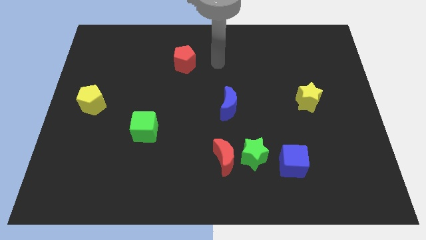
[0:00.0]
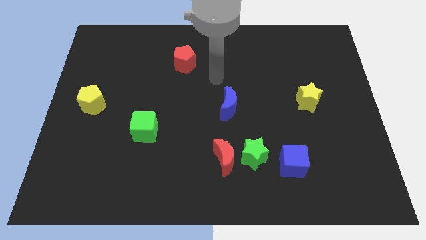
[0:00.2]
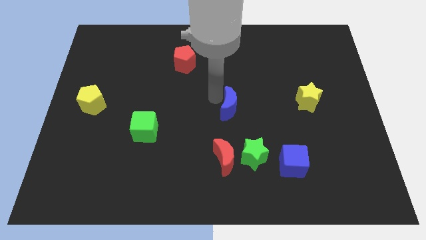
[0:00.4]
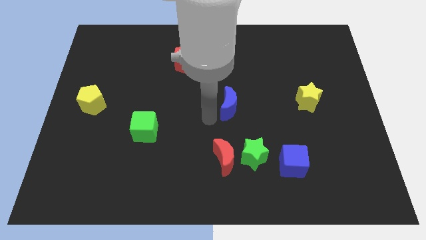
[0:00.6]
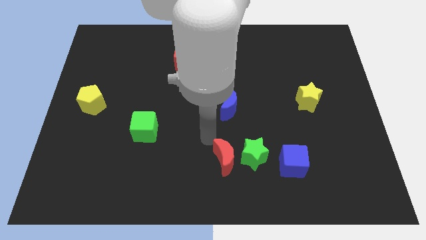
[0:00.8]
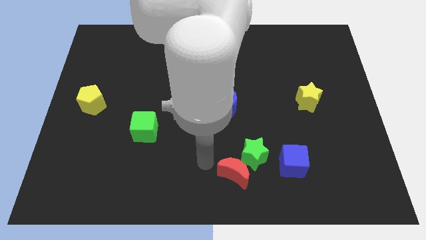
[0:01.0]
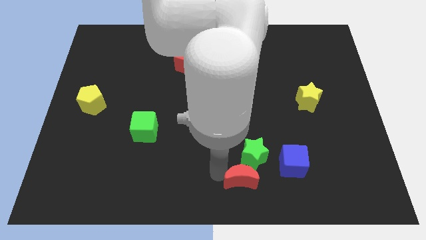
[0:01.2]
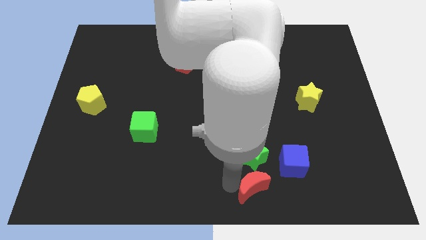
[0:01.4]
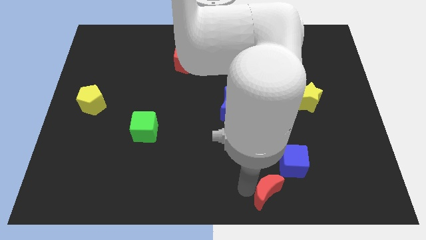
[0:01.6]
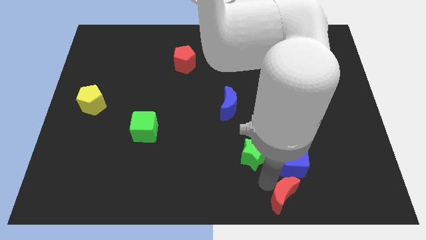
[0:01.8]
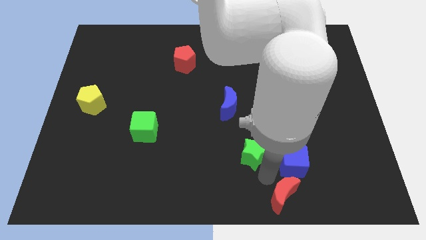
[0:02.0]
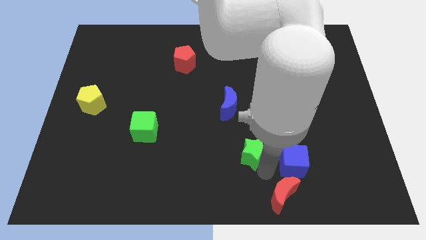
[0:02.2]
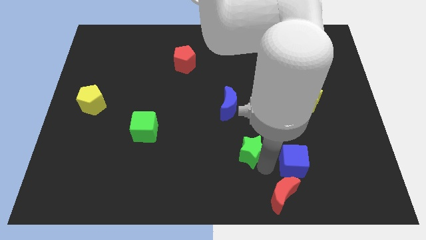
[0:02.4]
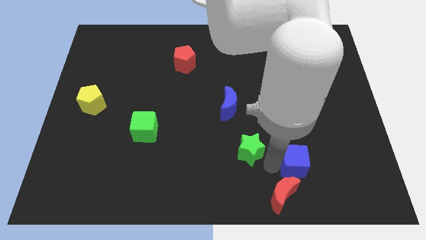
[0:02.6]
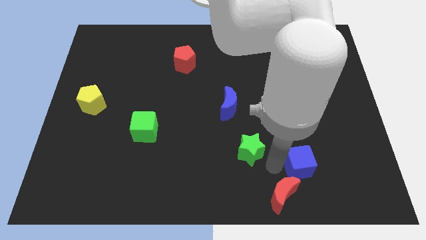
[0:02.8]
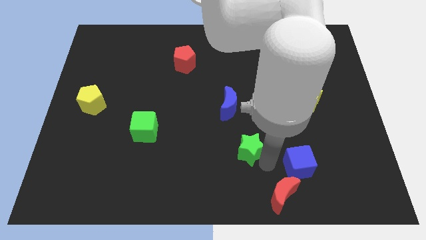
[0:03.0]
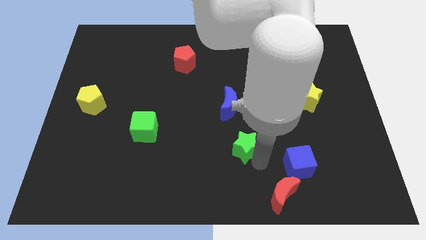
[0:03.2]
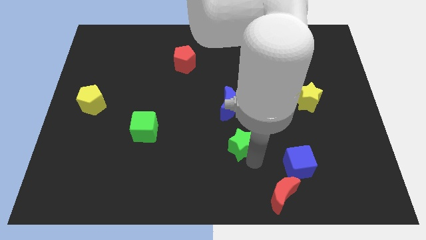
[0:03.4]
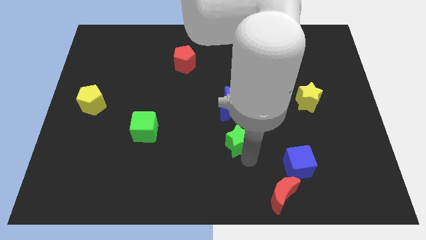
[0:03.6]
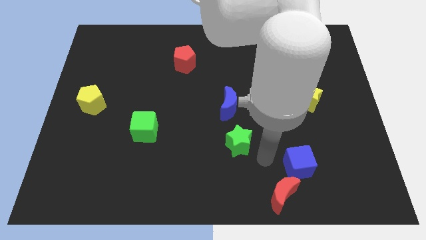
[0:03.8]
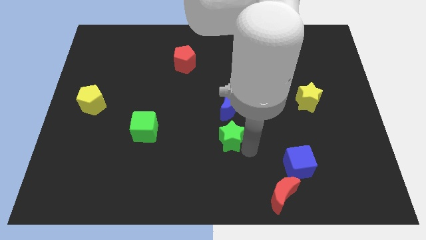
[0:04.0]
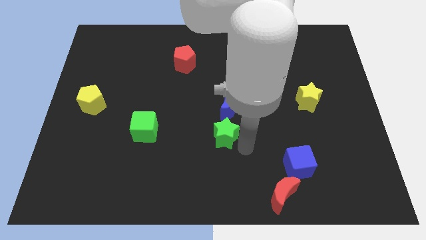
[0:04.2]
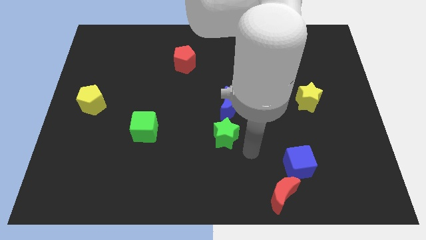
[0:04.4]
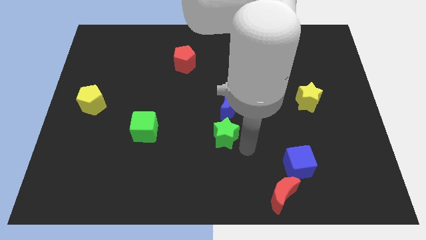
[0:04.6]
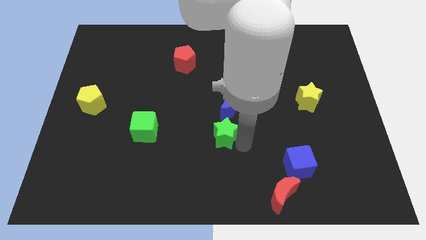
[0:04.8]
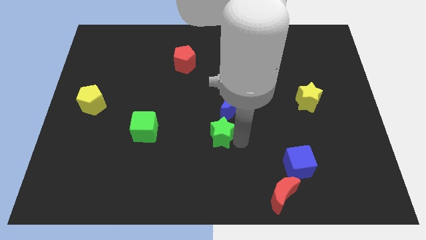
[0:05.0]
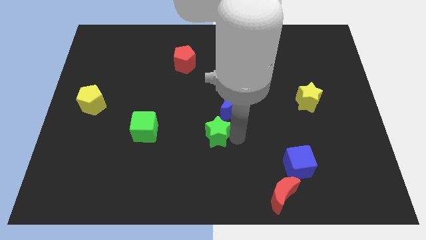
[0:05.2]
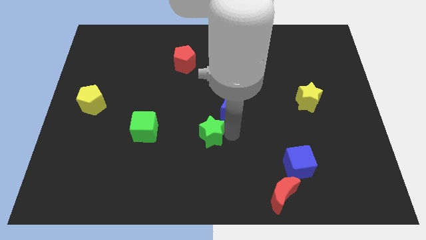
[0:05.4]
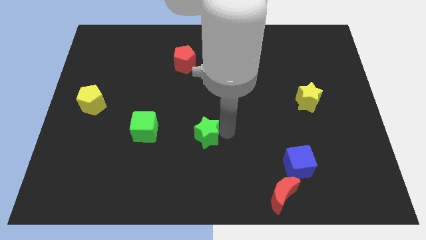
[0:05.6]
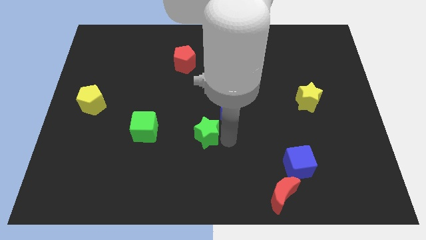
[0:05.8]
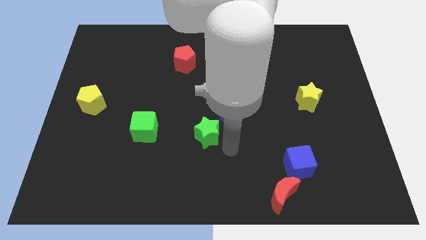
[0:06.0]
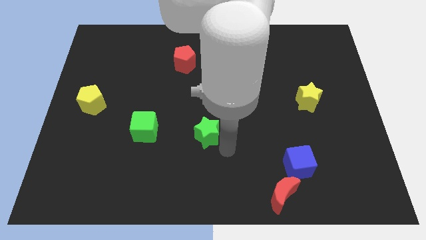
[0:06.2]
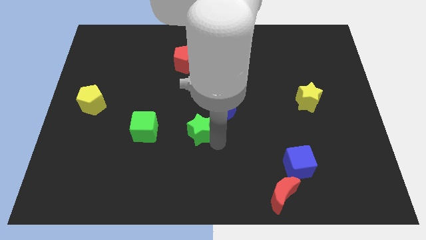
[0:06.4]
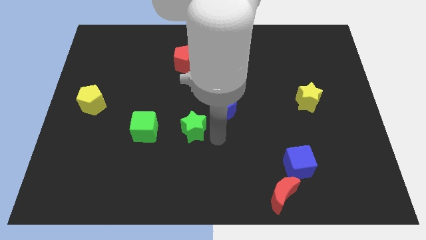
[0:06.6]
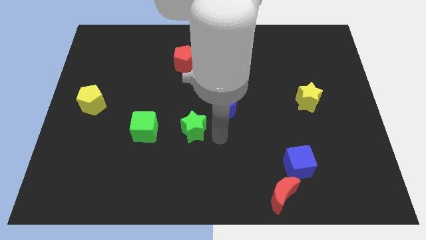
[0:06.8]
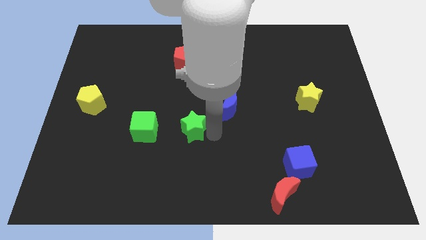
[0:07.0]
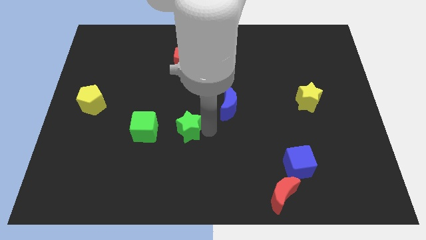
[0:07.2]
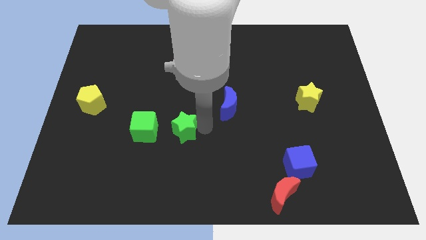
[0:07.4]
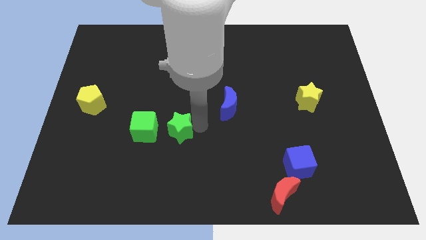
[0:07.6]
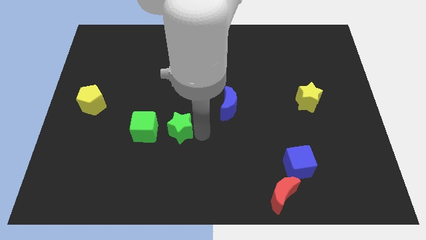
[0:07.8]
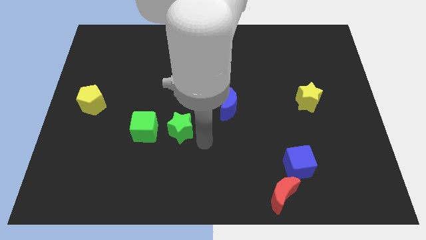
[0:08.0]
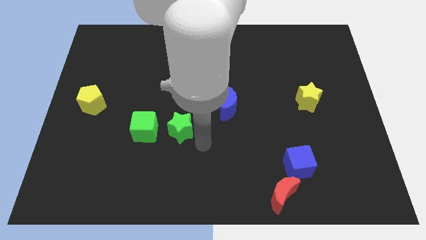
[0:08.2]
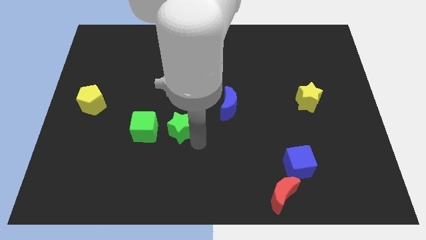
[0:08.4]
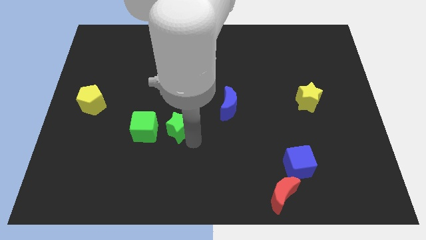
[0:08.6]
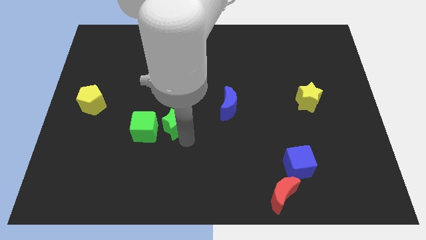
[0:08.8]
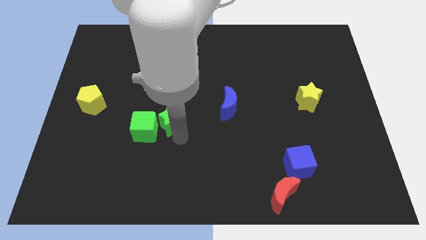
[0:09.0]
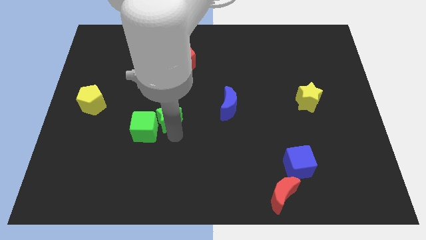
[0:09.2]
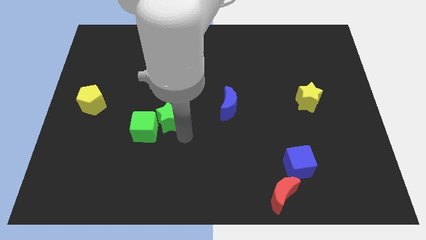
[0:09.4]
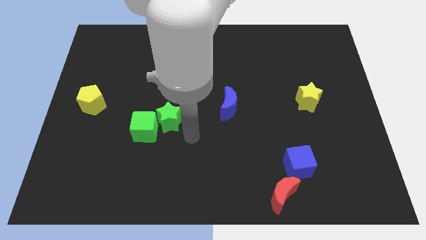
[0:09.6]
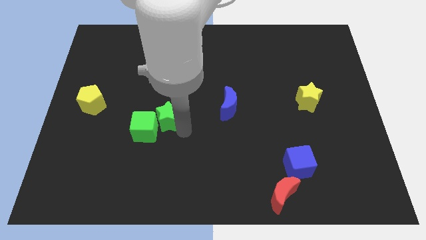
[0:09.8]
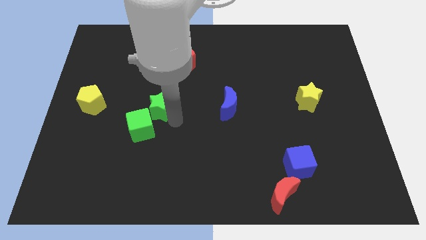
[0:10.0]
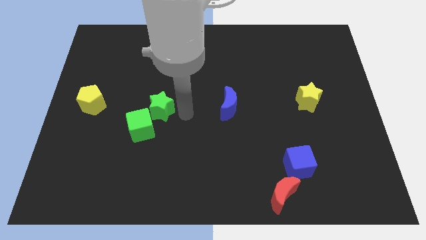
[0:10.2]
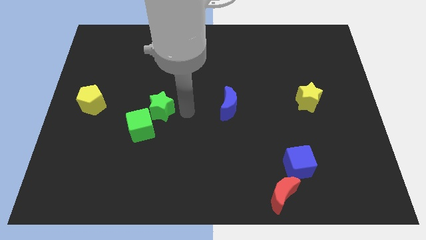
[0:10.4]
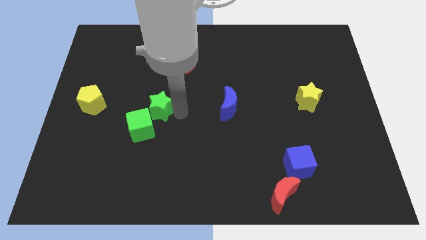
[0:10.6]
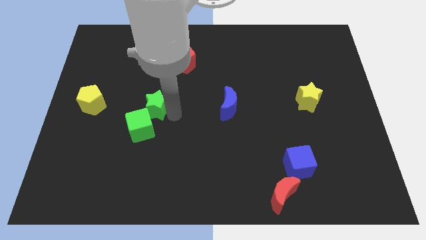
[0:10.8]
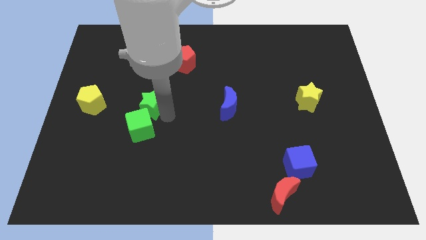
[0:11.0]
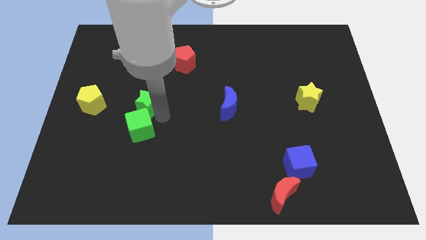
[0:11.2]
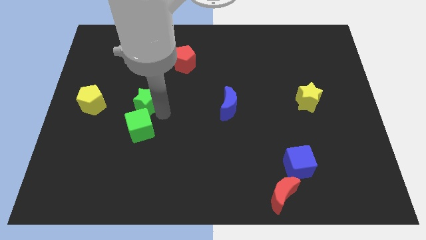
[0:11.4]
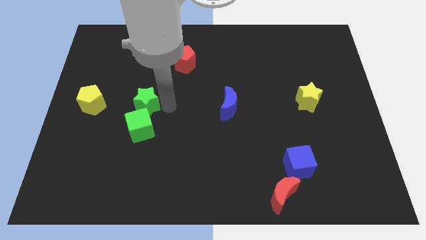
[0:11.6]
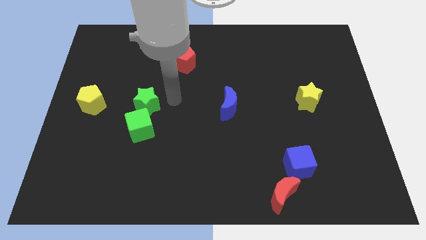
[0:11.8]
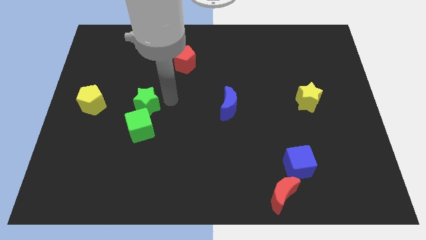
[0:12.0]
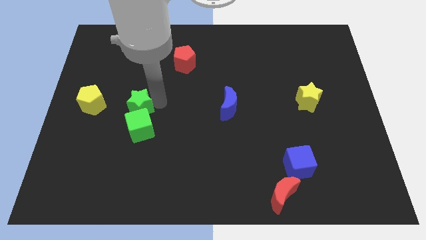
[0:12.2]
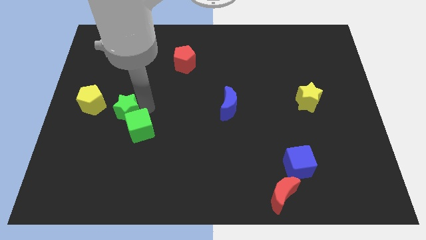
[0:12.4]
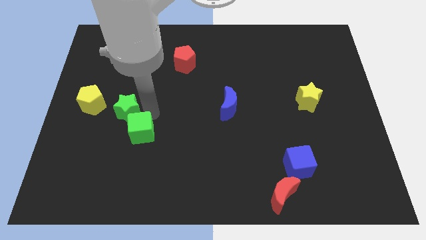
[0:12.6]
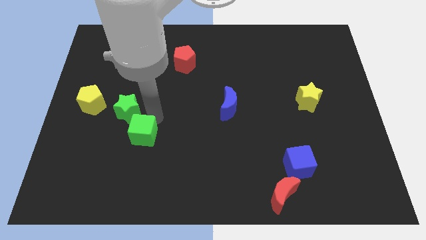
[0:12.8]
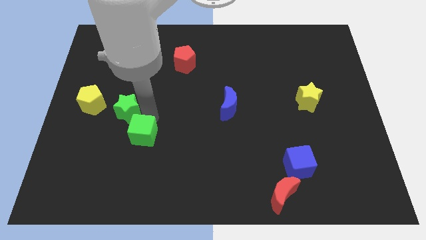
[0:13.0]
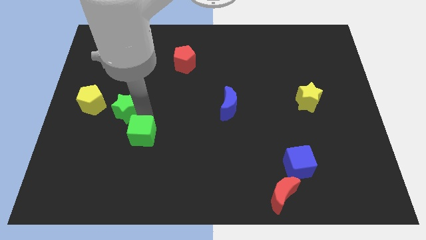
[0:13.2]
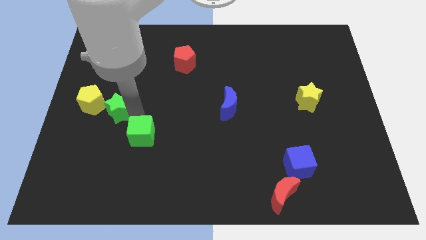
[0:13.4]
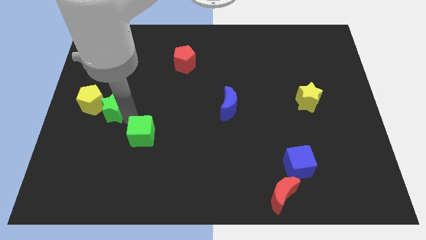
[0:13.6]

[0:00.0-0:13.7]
slide the green star close to the yellow pentagon
